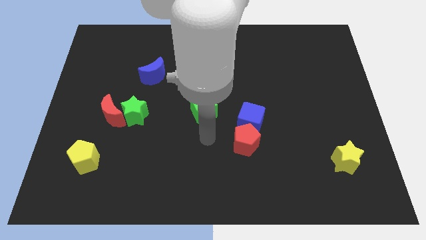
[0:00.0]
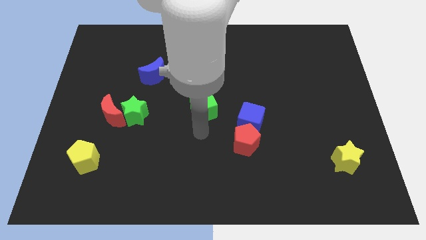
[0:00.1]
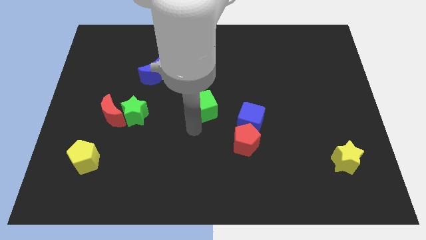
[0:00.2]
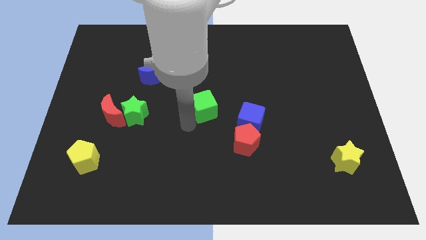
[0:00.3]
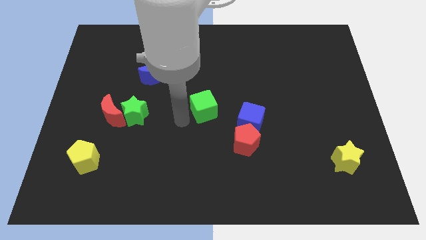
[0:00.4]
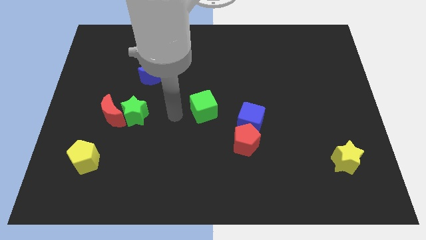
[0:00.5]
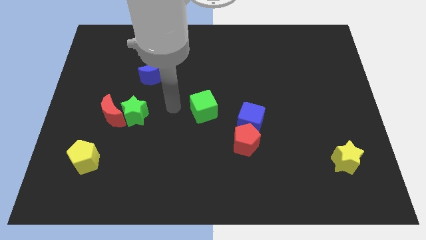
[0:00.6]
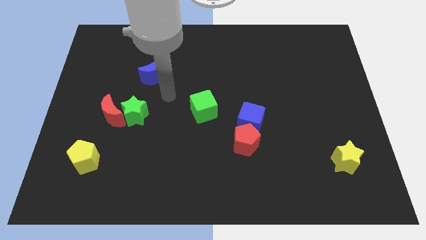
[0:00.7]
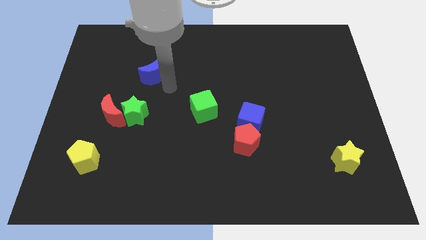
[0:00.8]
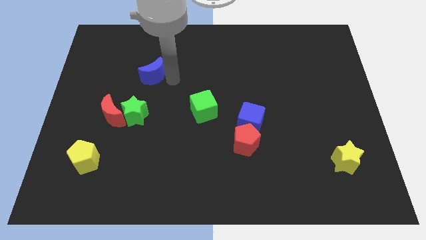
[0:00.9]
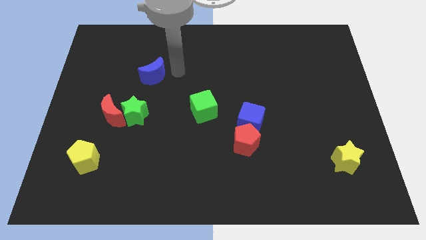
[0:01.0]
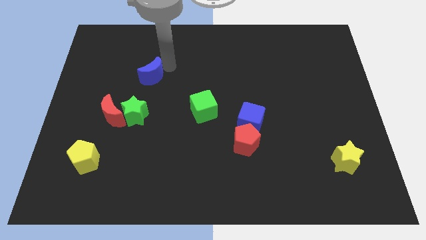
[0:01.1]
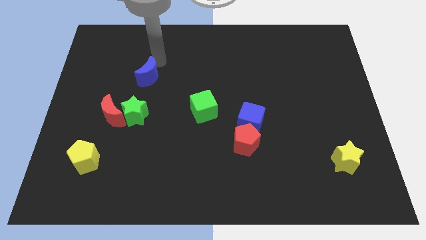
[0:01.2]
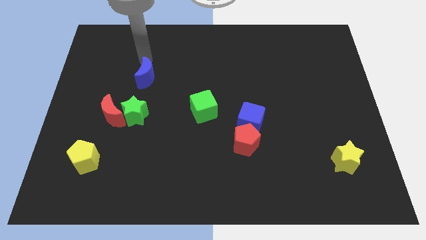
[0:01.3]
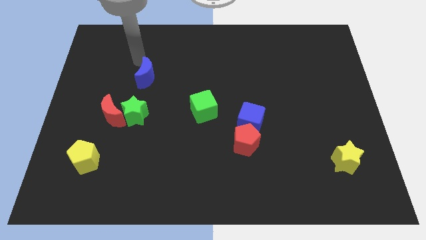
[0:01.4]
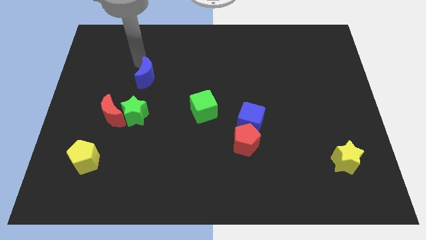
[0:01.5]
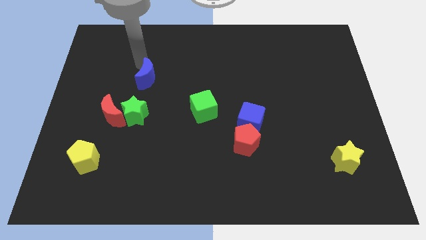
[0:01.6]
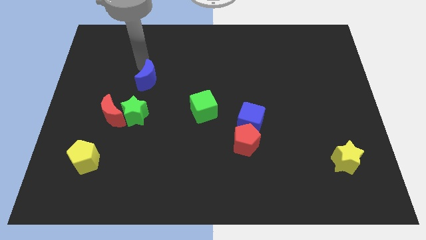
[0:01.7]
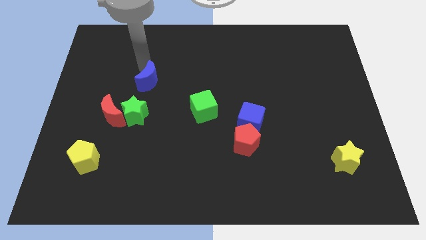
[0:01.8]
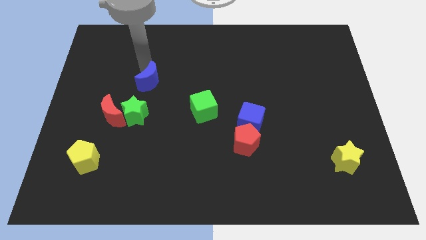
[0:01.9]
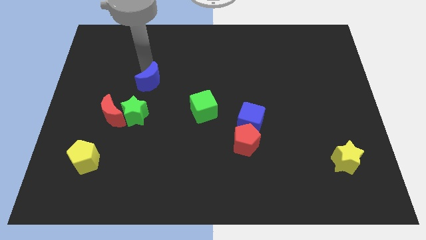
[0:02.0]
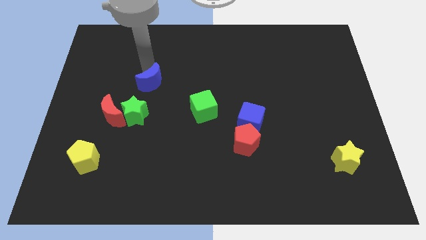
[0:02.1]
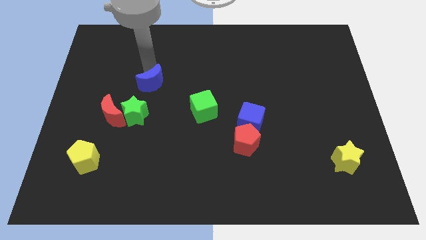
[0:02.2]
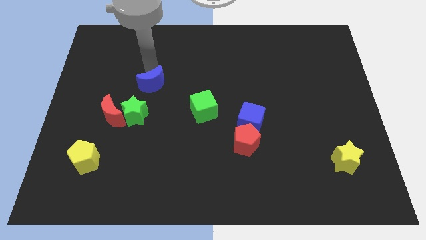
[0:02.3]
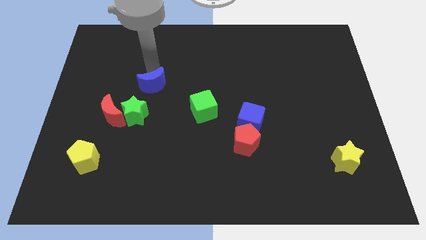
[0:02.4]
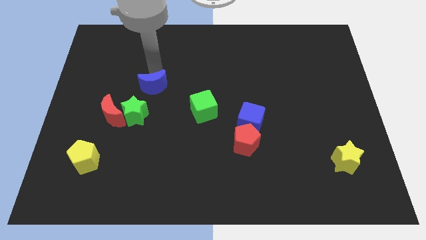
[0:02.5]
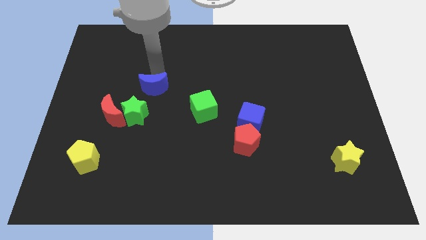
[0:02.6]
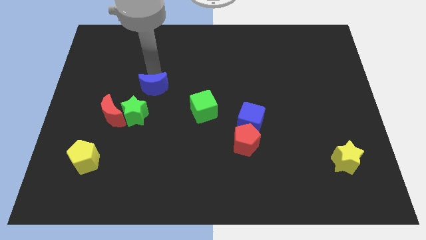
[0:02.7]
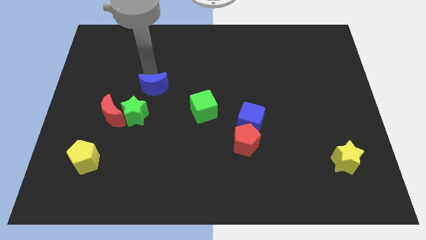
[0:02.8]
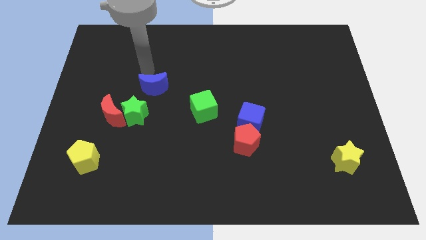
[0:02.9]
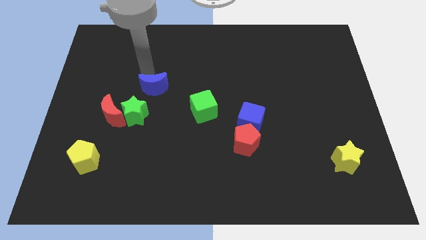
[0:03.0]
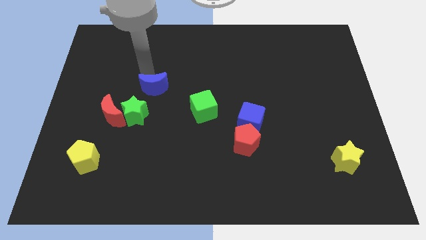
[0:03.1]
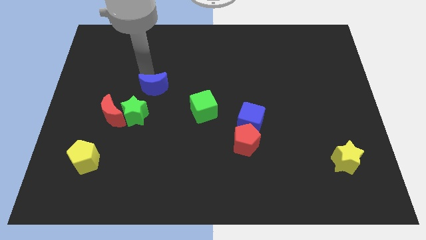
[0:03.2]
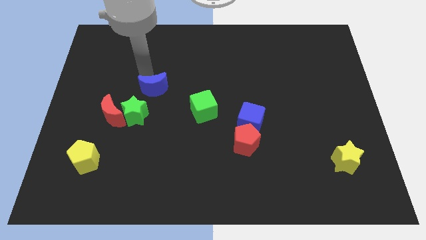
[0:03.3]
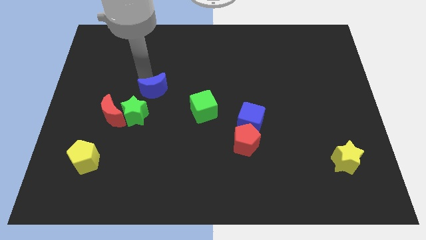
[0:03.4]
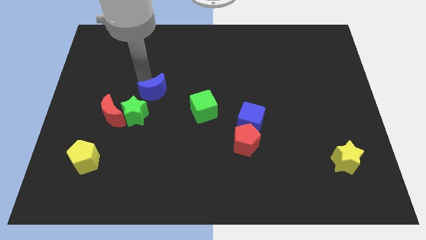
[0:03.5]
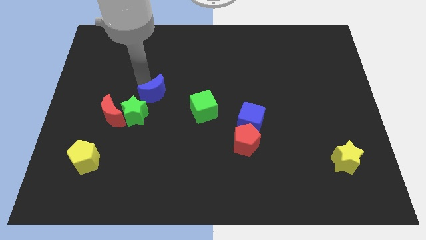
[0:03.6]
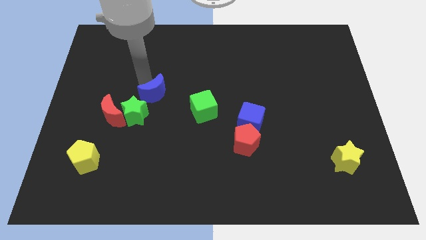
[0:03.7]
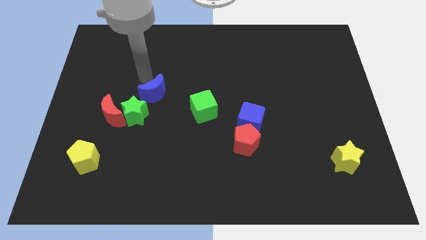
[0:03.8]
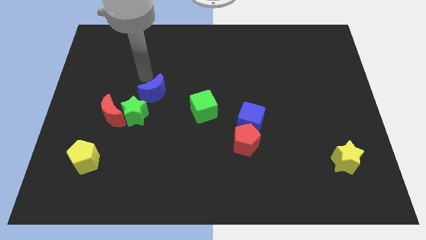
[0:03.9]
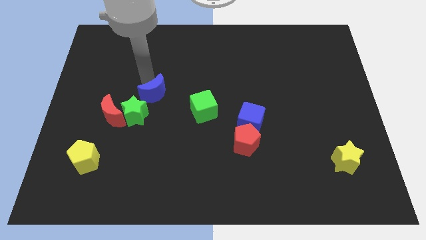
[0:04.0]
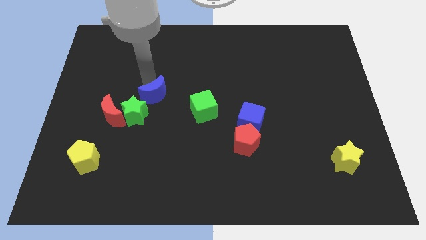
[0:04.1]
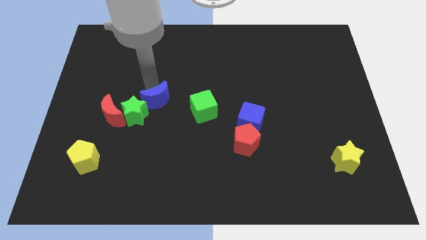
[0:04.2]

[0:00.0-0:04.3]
slightly slide the blue moon downwards

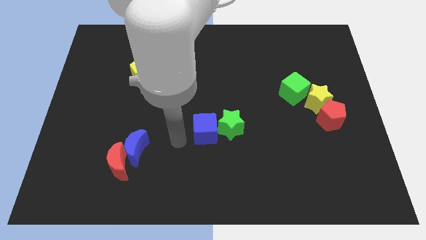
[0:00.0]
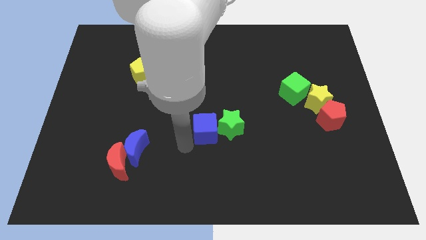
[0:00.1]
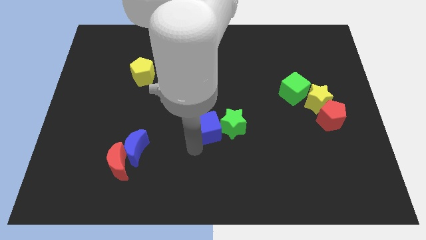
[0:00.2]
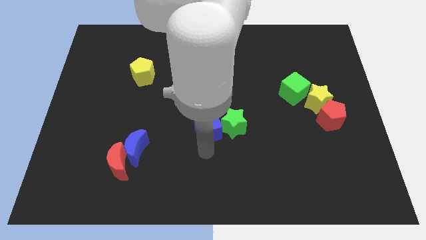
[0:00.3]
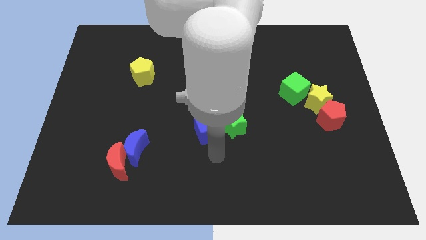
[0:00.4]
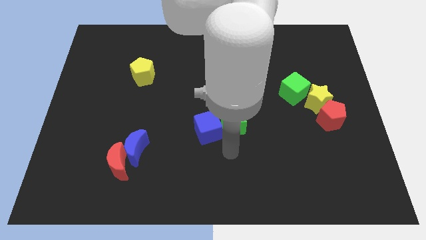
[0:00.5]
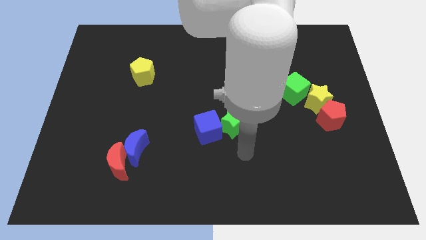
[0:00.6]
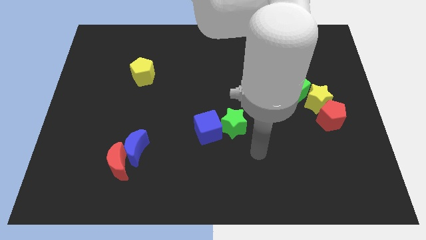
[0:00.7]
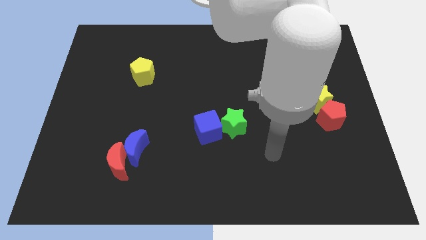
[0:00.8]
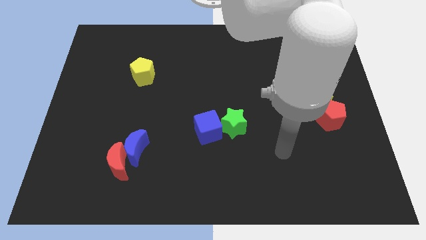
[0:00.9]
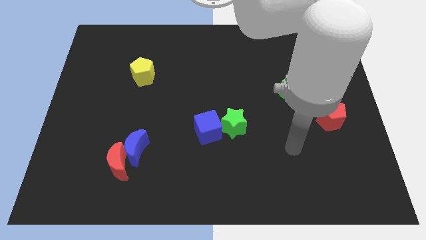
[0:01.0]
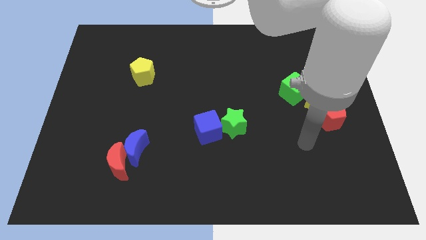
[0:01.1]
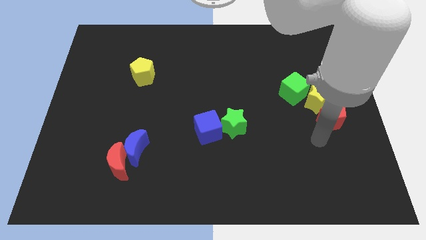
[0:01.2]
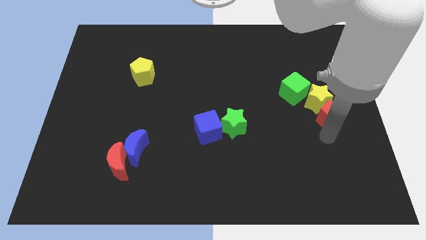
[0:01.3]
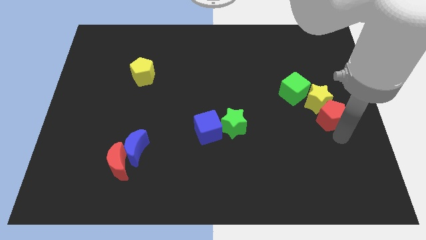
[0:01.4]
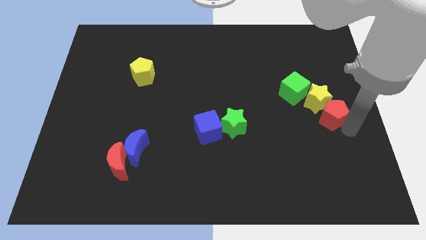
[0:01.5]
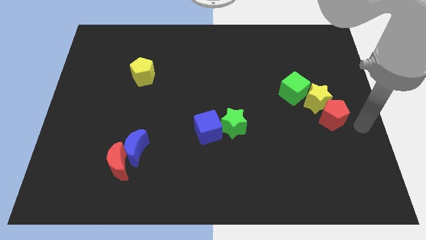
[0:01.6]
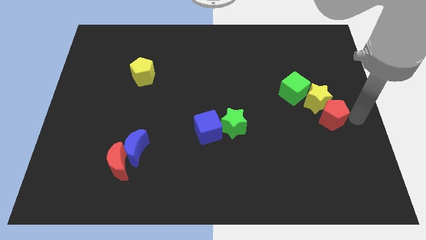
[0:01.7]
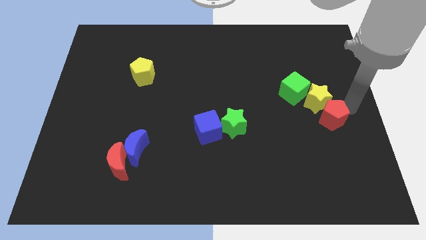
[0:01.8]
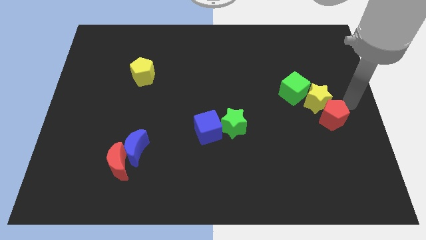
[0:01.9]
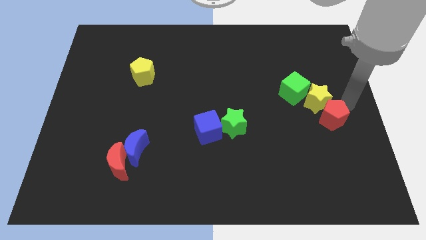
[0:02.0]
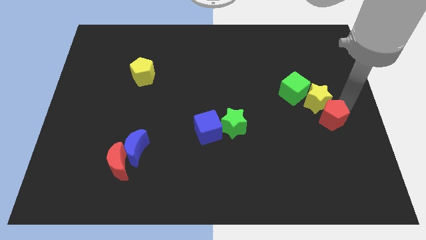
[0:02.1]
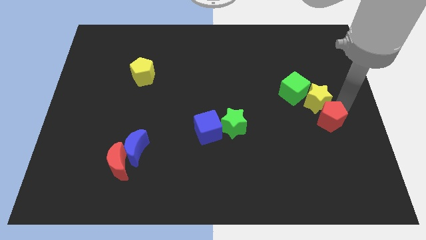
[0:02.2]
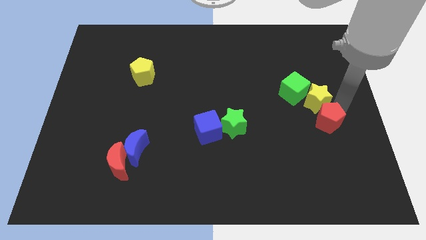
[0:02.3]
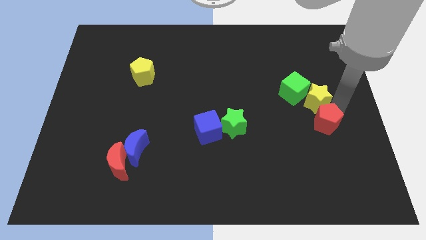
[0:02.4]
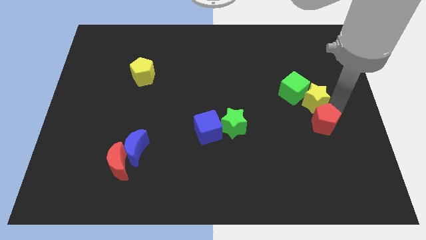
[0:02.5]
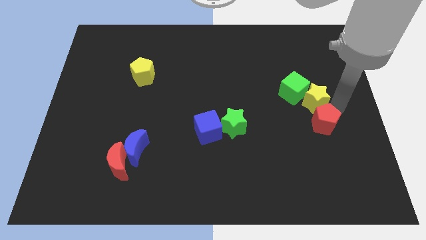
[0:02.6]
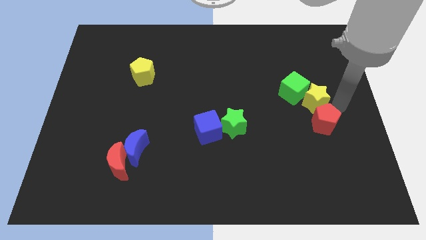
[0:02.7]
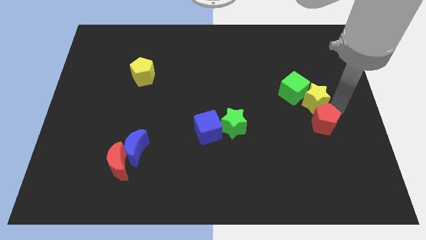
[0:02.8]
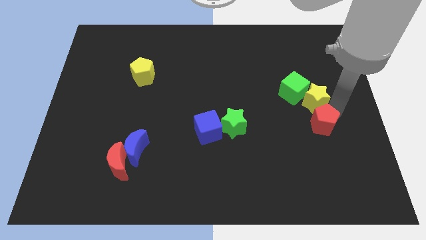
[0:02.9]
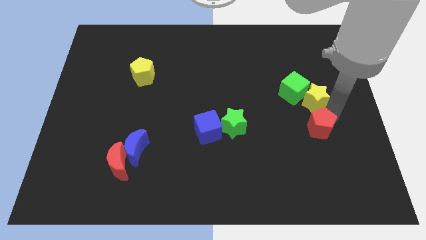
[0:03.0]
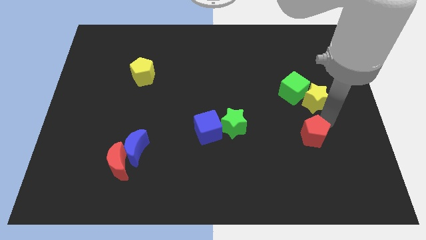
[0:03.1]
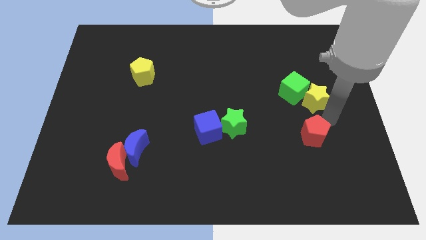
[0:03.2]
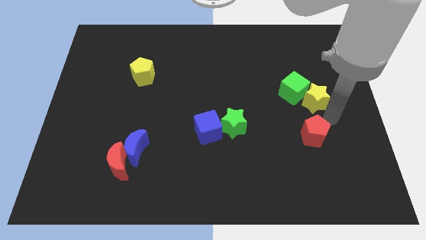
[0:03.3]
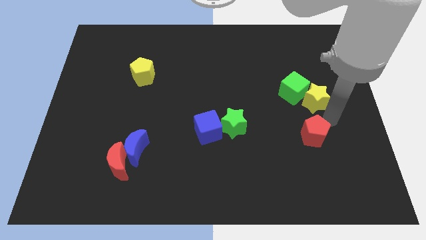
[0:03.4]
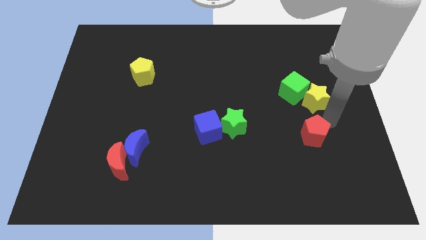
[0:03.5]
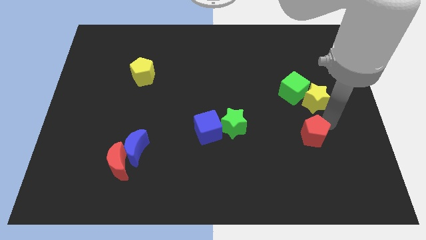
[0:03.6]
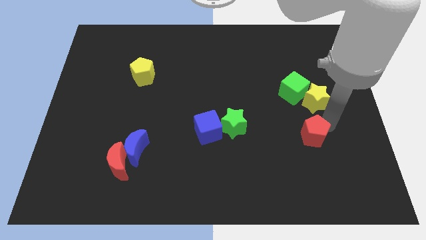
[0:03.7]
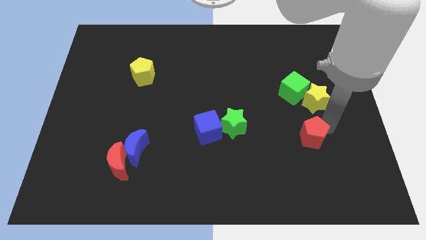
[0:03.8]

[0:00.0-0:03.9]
move the red pentagon somewhat down and left

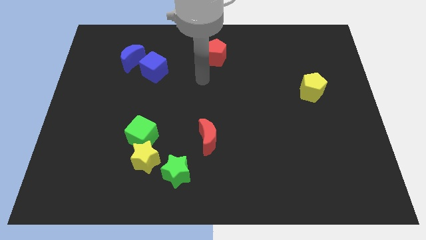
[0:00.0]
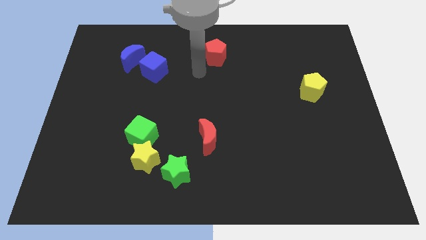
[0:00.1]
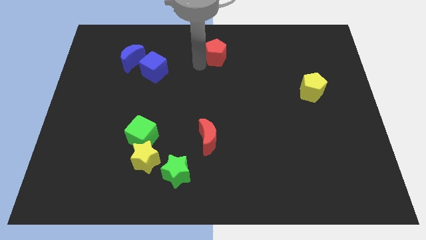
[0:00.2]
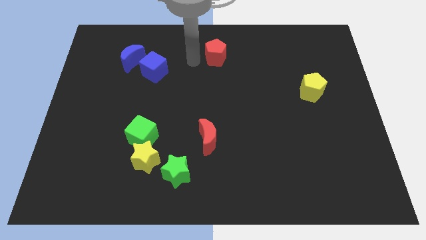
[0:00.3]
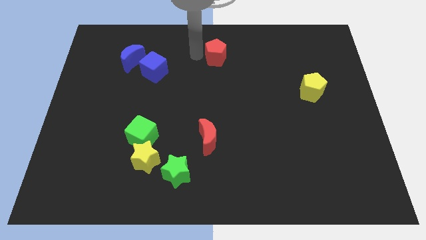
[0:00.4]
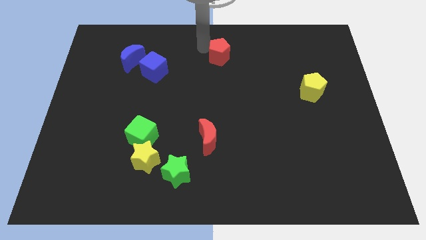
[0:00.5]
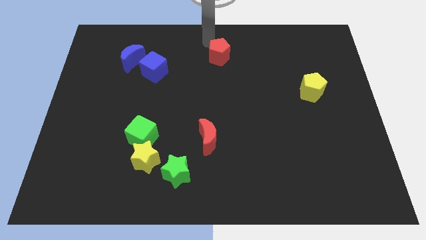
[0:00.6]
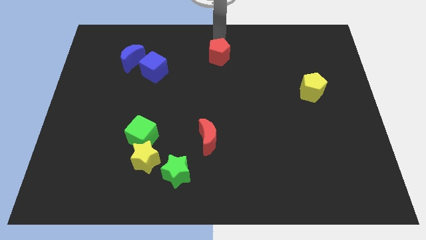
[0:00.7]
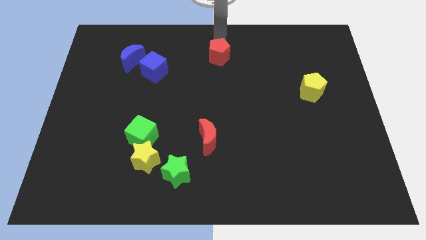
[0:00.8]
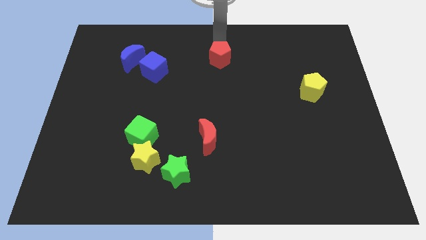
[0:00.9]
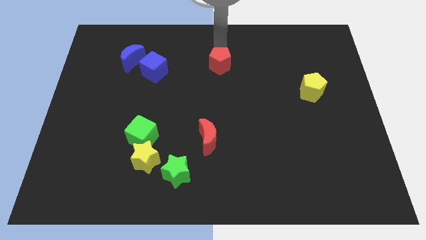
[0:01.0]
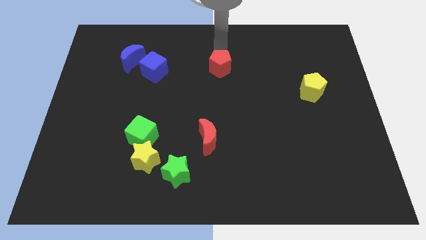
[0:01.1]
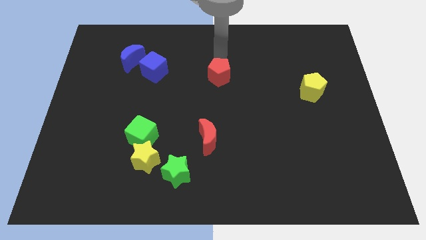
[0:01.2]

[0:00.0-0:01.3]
slightly push the red pentagon down
